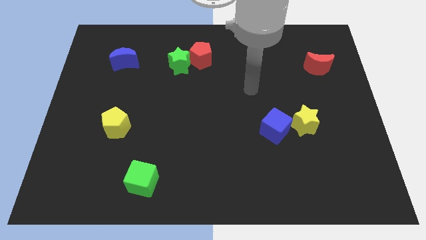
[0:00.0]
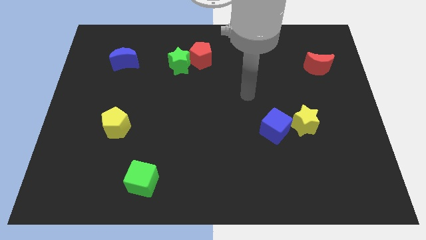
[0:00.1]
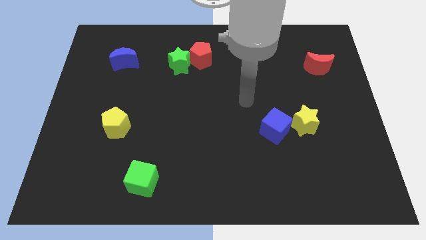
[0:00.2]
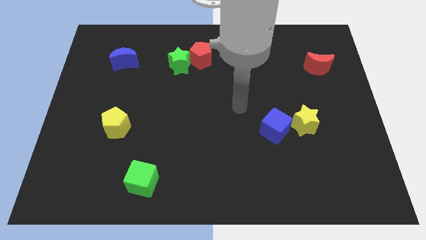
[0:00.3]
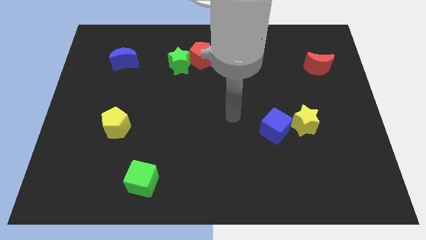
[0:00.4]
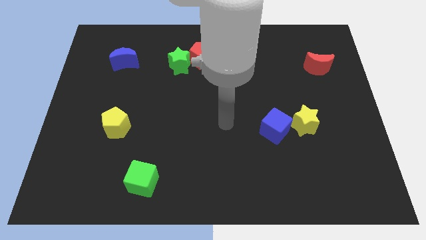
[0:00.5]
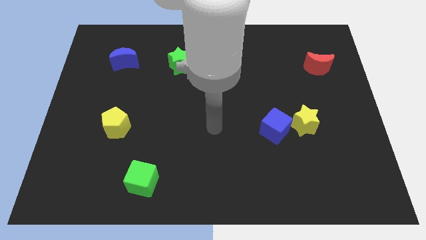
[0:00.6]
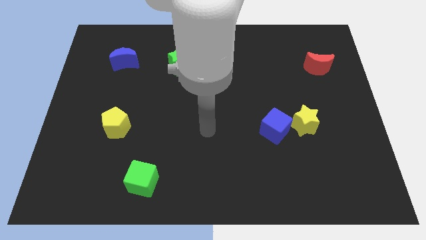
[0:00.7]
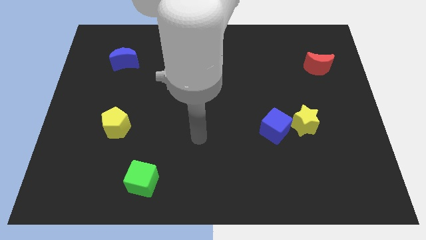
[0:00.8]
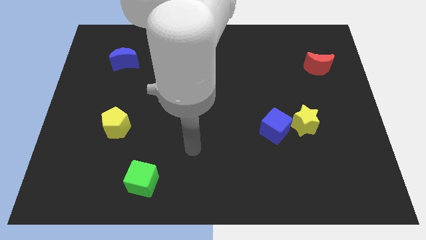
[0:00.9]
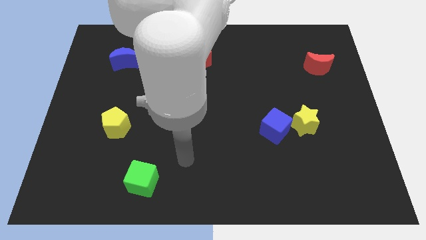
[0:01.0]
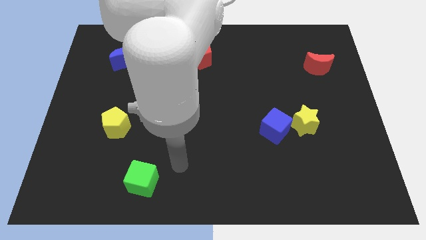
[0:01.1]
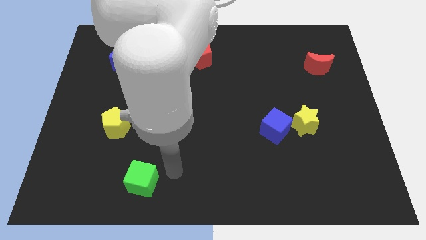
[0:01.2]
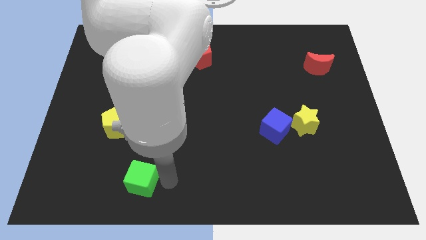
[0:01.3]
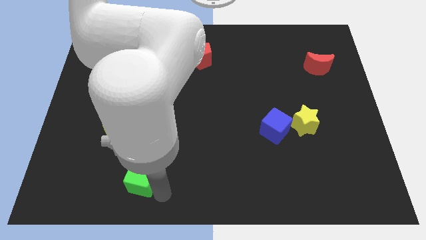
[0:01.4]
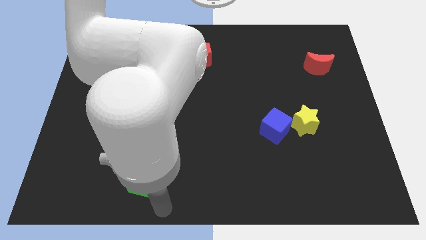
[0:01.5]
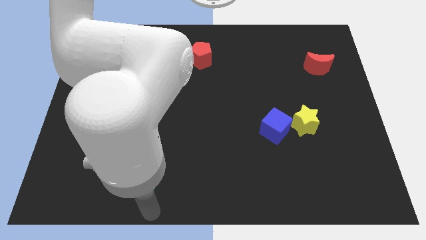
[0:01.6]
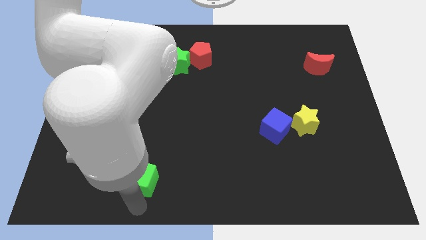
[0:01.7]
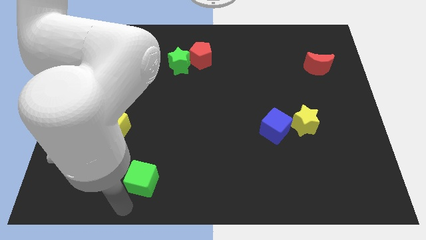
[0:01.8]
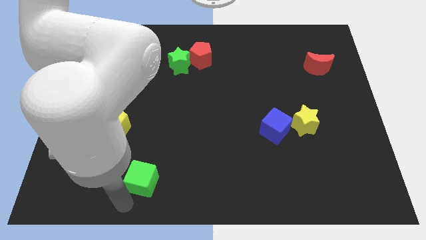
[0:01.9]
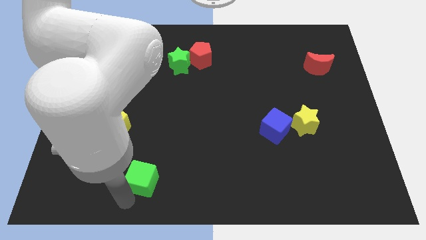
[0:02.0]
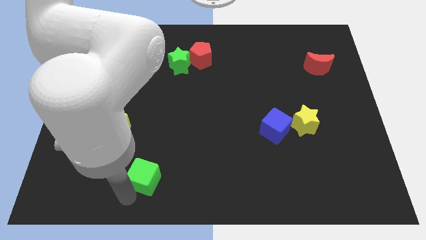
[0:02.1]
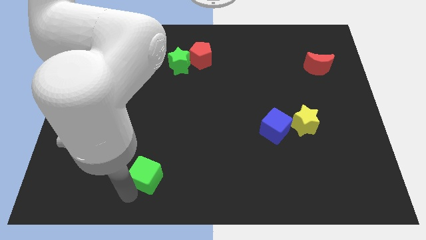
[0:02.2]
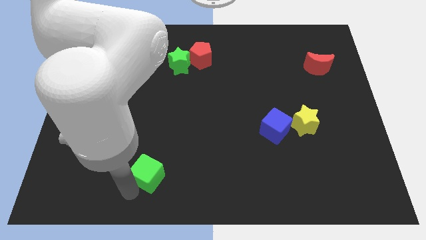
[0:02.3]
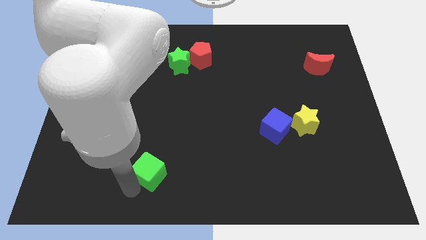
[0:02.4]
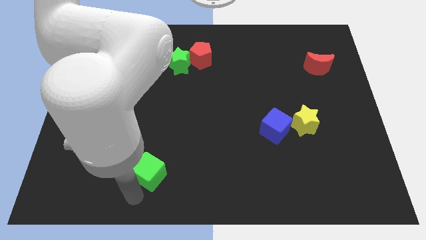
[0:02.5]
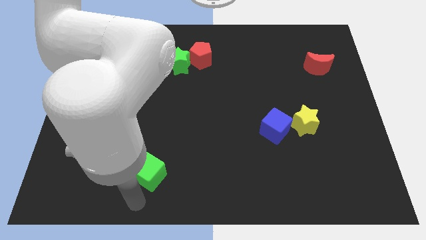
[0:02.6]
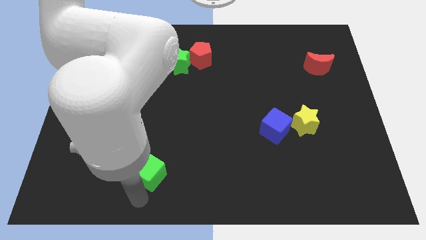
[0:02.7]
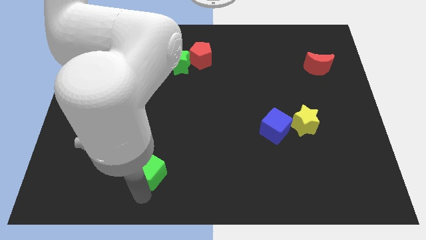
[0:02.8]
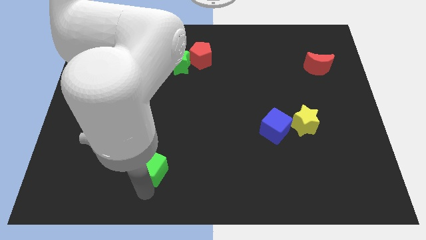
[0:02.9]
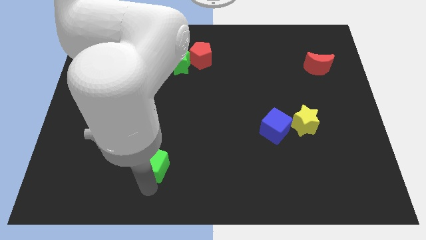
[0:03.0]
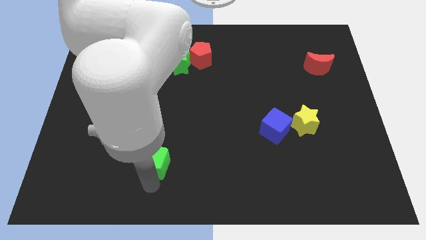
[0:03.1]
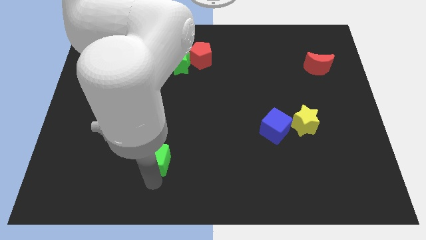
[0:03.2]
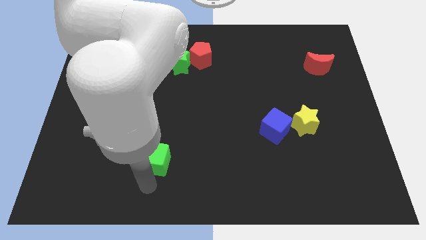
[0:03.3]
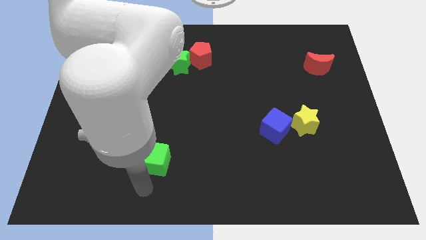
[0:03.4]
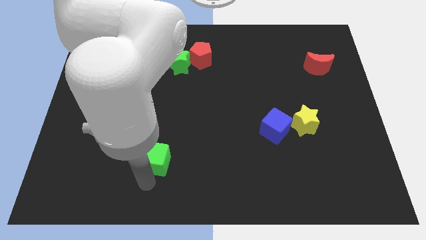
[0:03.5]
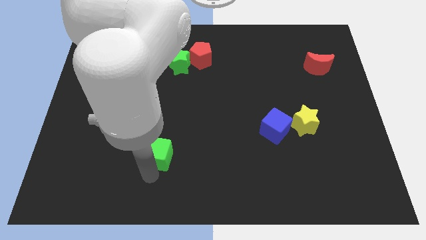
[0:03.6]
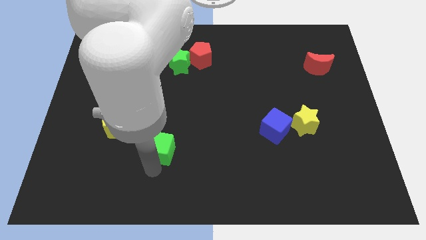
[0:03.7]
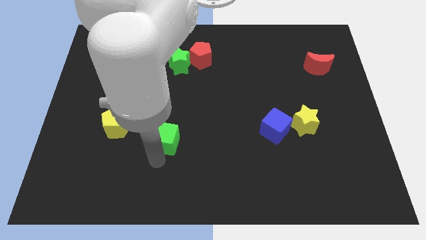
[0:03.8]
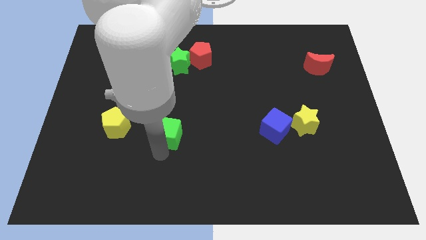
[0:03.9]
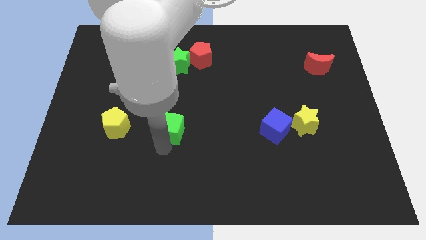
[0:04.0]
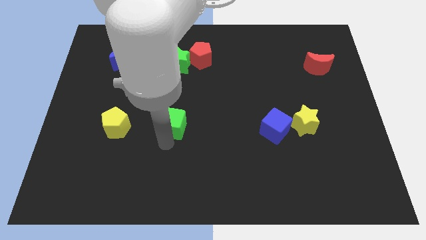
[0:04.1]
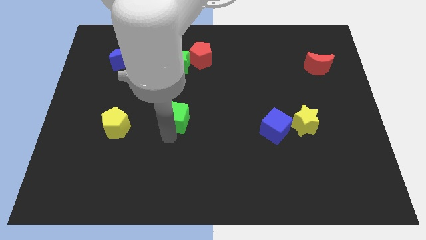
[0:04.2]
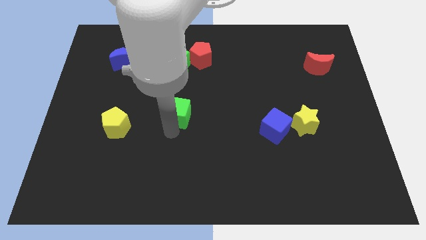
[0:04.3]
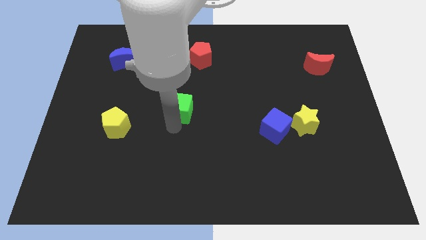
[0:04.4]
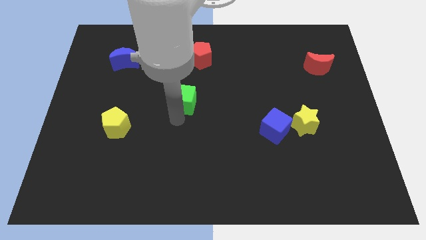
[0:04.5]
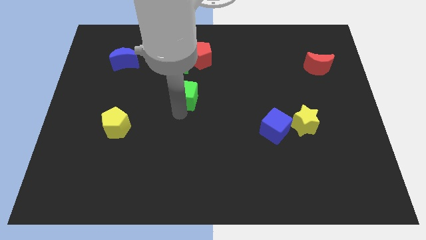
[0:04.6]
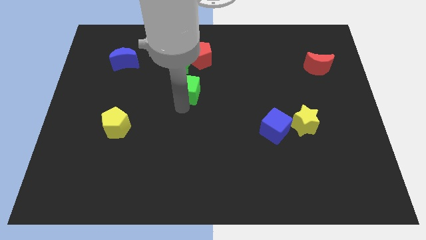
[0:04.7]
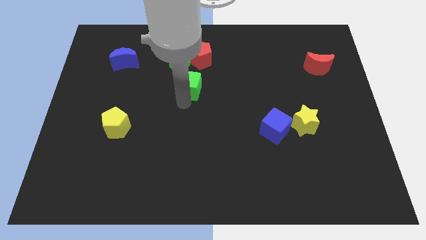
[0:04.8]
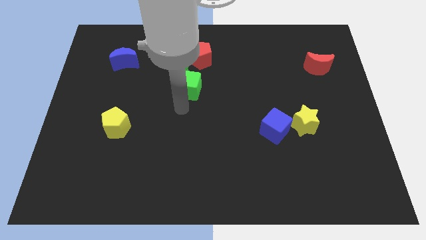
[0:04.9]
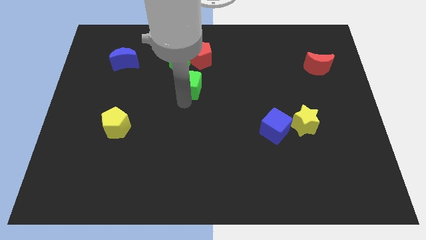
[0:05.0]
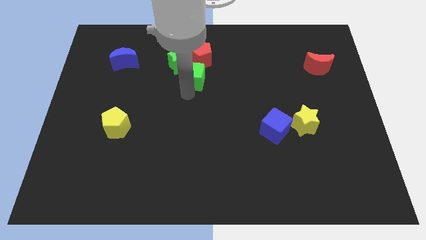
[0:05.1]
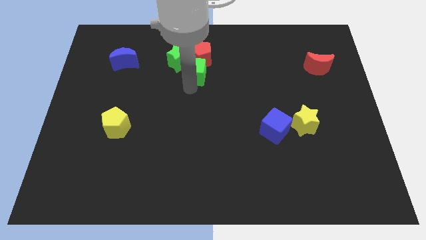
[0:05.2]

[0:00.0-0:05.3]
push the green cube next to the red pentagon

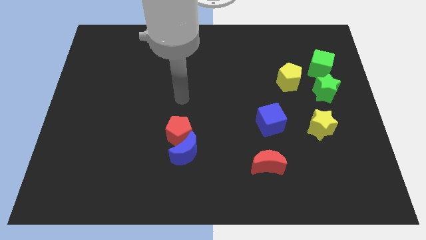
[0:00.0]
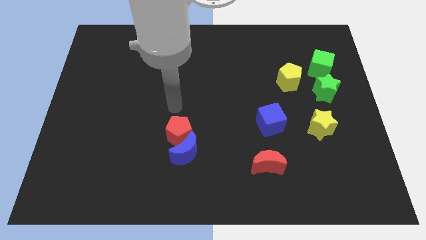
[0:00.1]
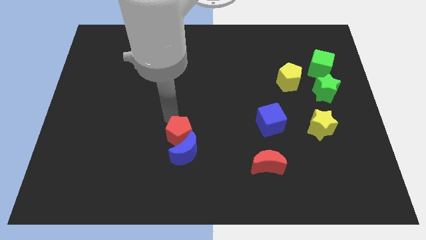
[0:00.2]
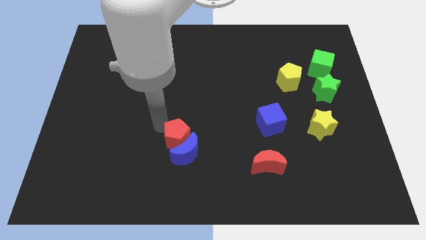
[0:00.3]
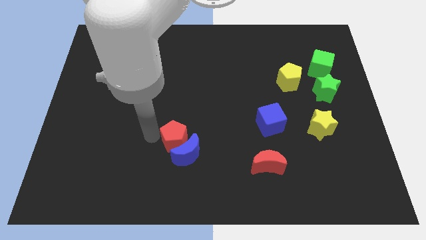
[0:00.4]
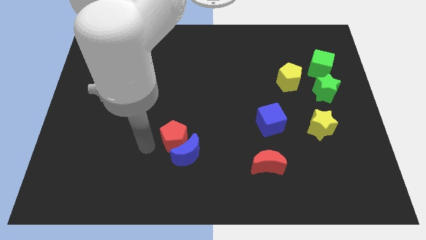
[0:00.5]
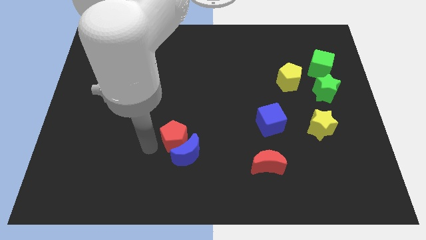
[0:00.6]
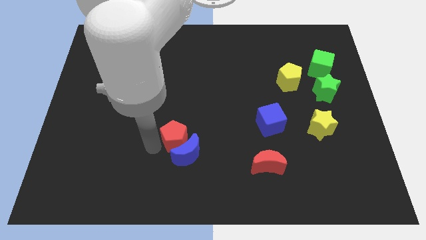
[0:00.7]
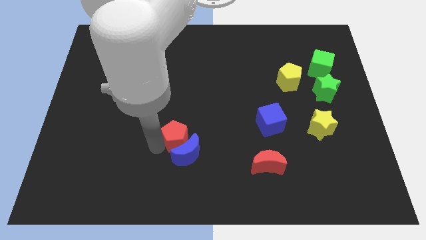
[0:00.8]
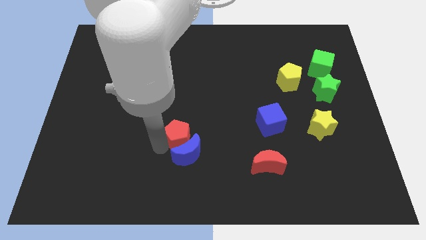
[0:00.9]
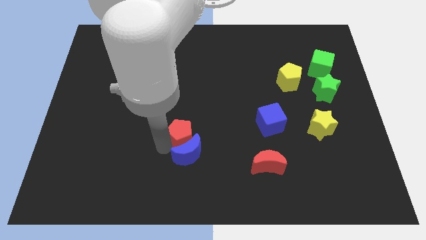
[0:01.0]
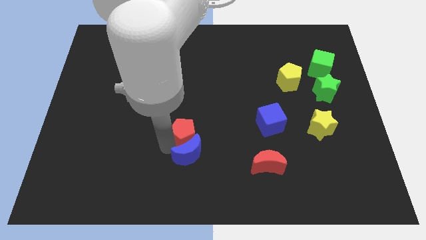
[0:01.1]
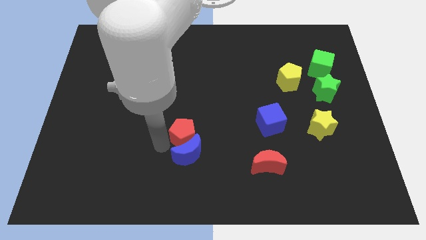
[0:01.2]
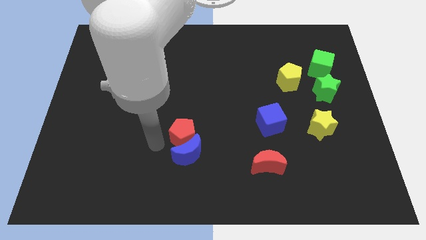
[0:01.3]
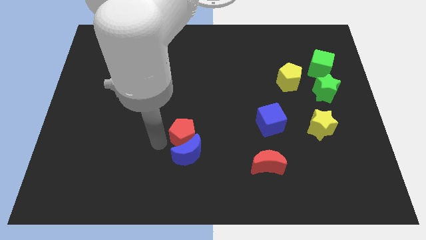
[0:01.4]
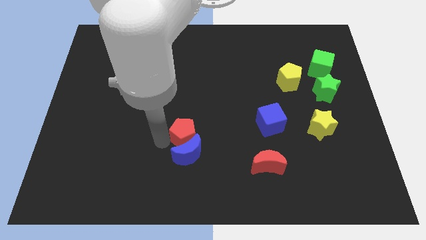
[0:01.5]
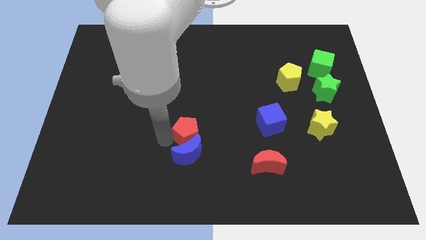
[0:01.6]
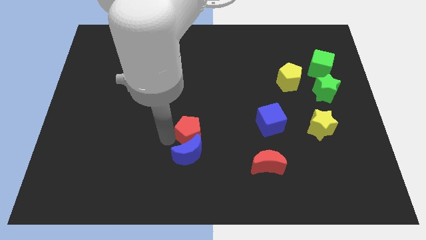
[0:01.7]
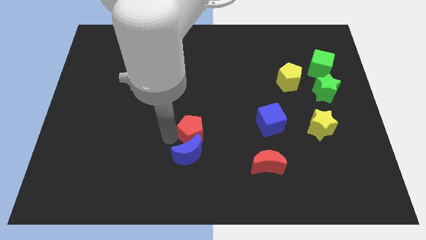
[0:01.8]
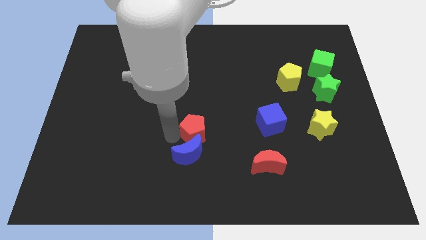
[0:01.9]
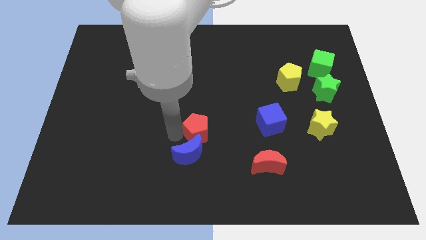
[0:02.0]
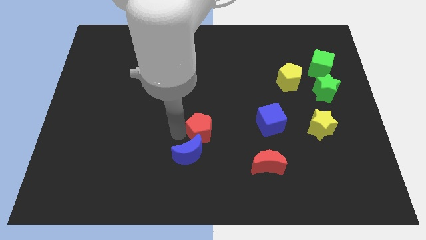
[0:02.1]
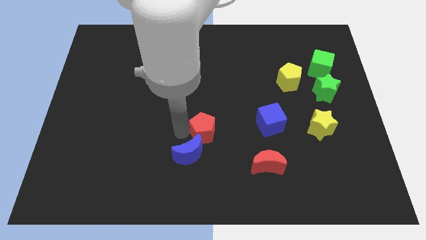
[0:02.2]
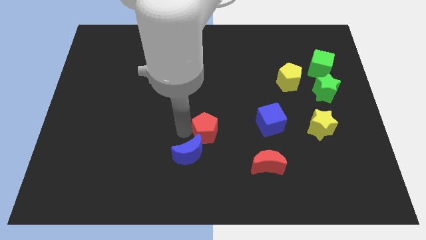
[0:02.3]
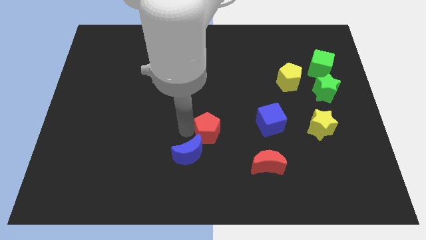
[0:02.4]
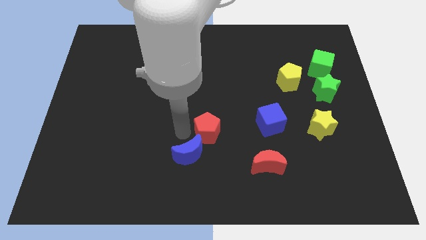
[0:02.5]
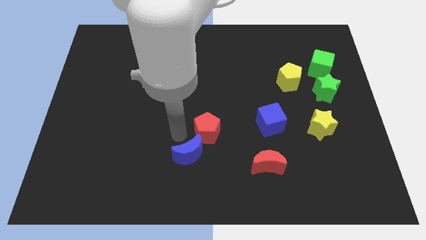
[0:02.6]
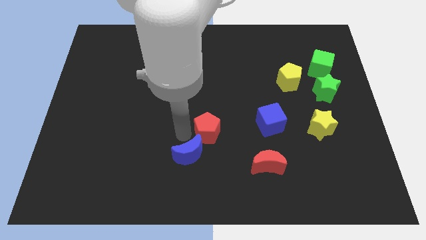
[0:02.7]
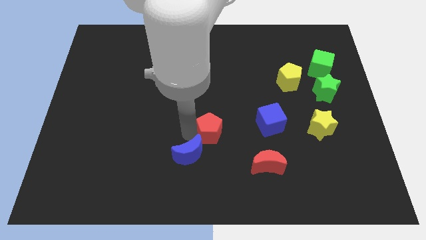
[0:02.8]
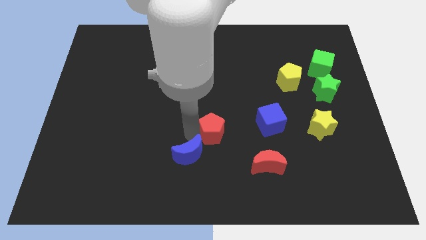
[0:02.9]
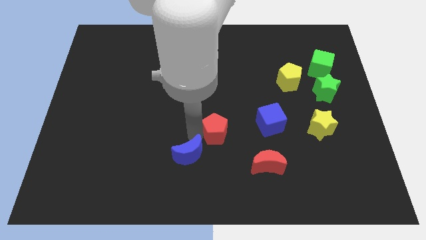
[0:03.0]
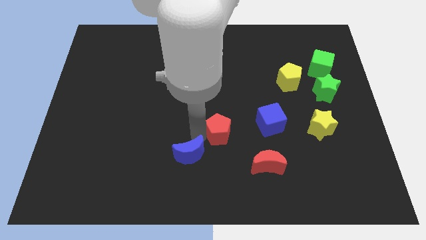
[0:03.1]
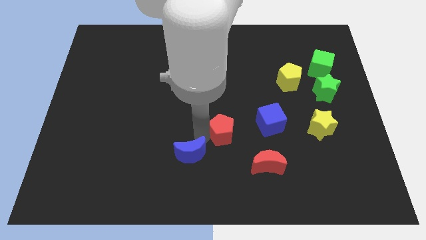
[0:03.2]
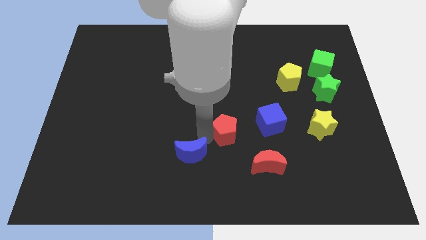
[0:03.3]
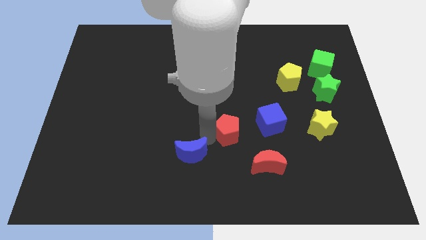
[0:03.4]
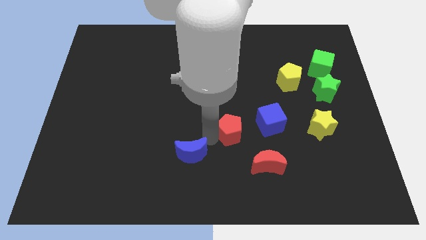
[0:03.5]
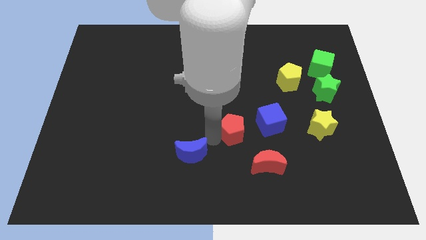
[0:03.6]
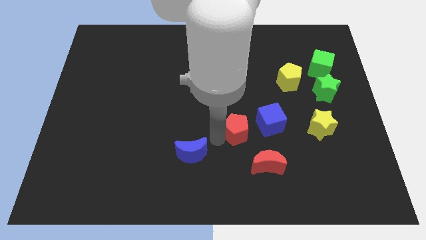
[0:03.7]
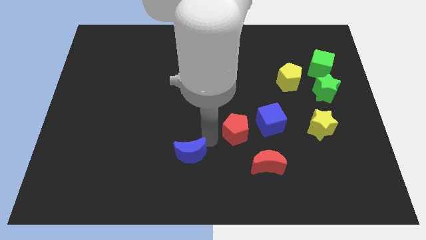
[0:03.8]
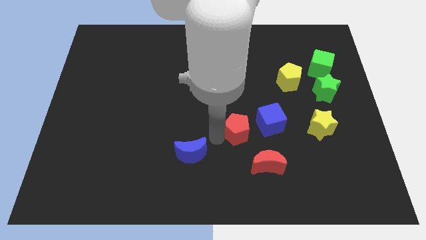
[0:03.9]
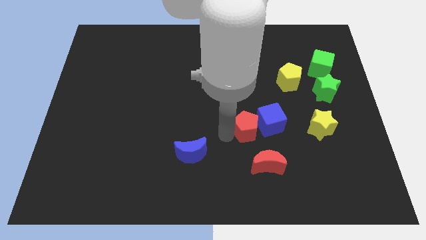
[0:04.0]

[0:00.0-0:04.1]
put the red pentagon close to the blue cube
